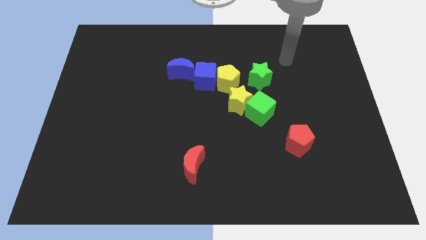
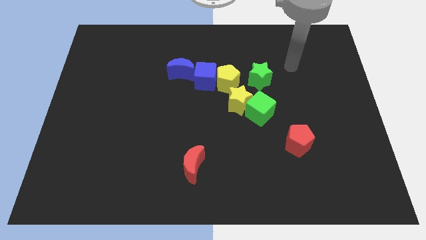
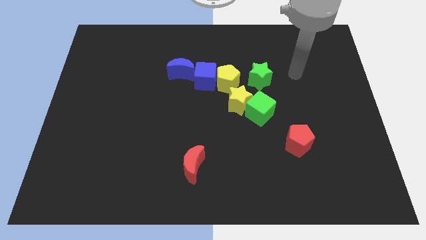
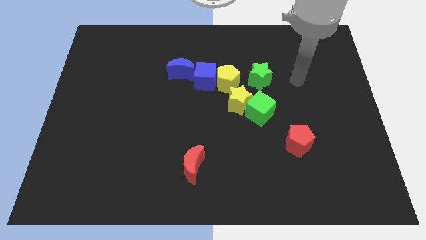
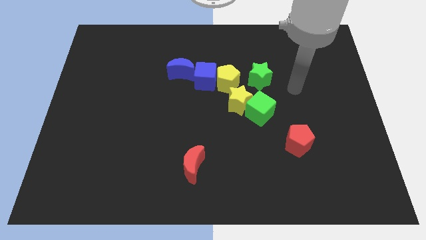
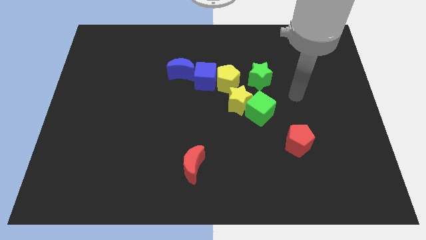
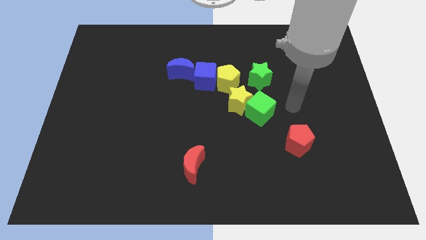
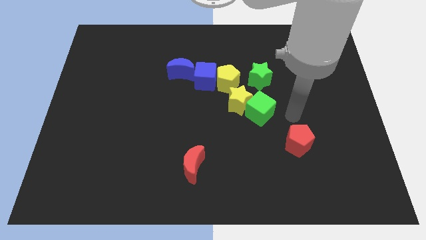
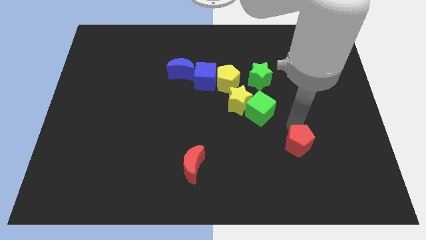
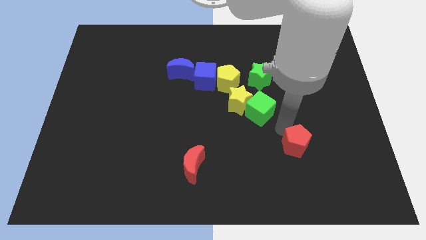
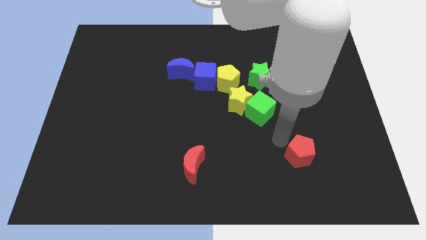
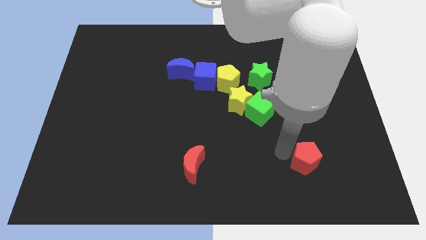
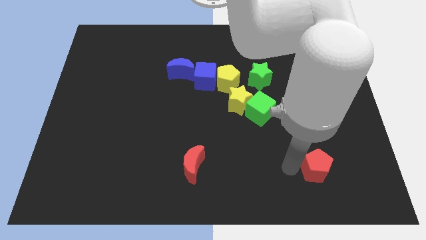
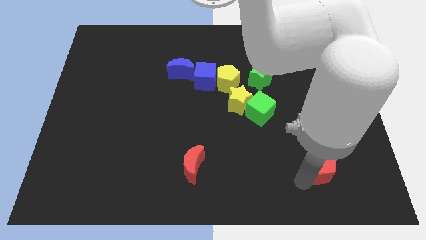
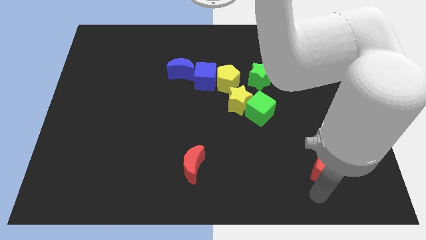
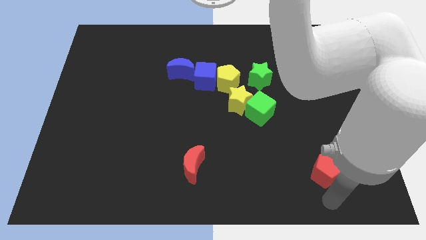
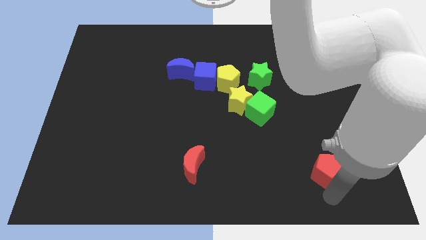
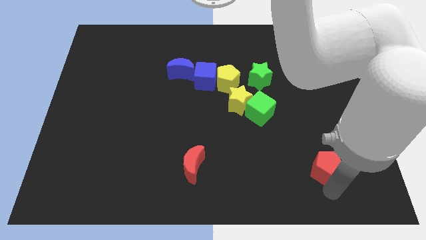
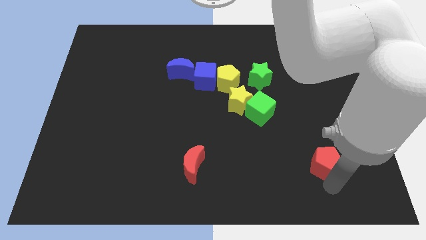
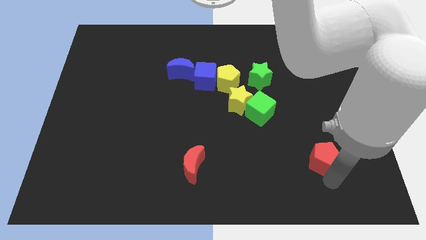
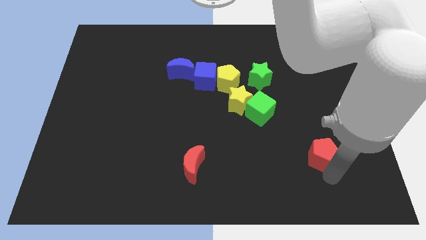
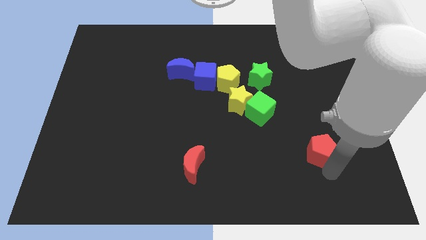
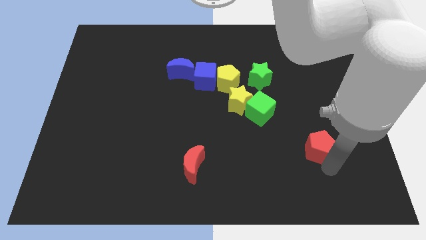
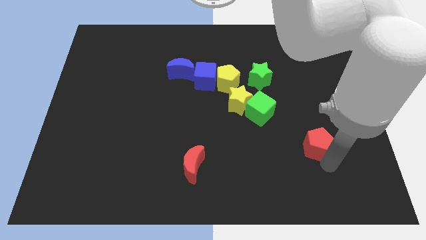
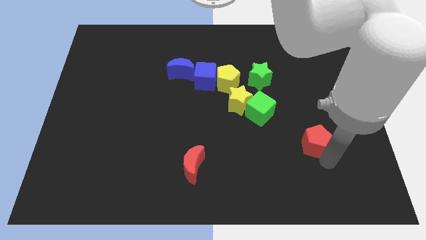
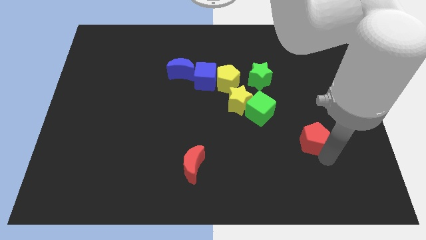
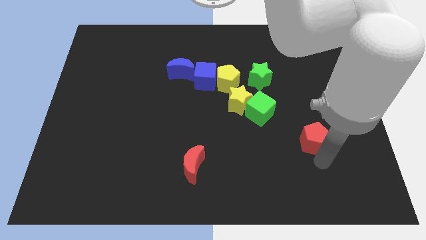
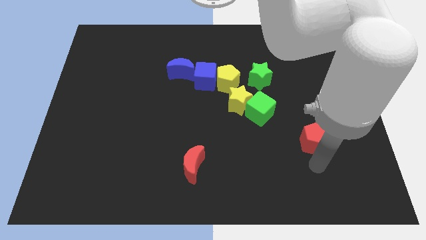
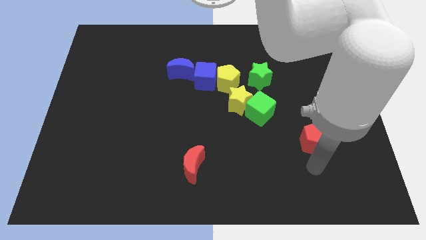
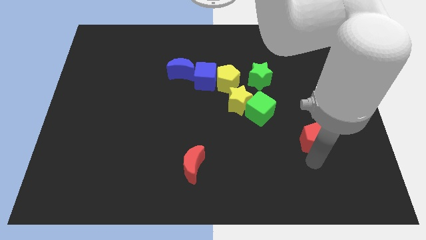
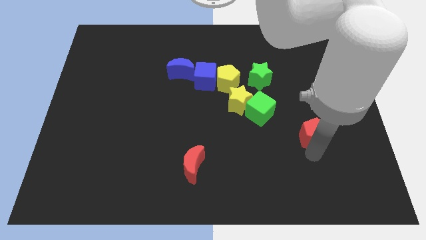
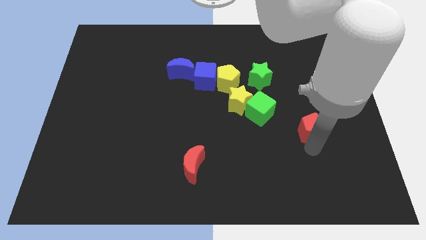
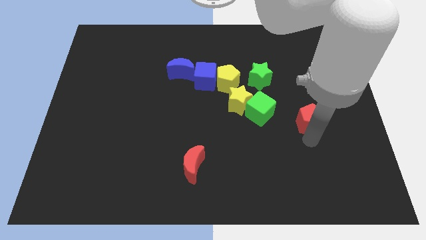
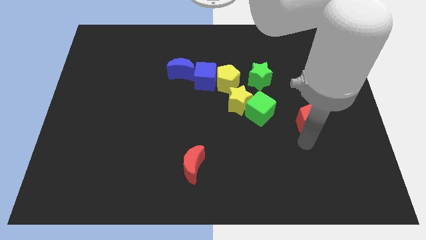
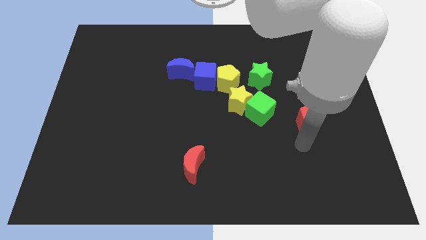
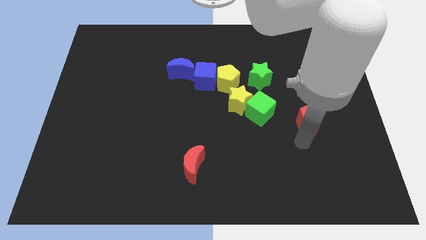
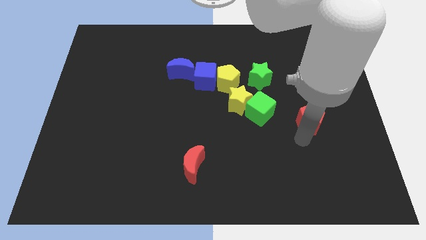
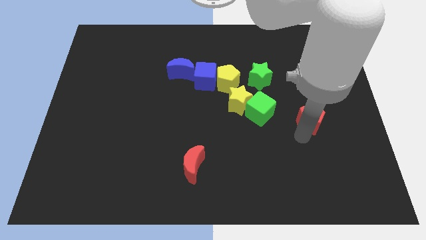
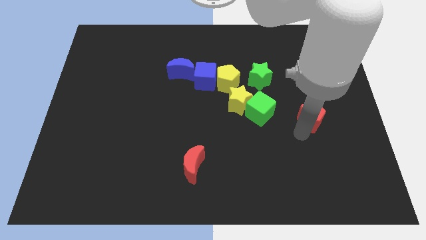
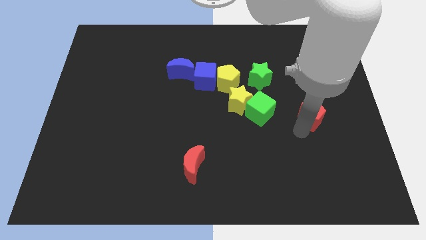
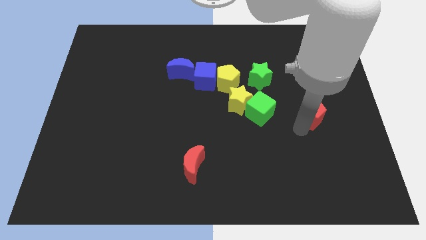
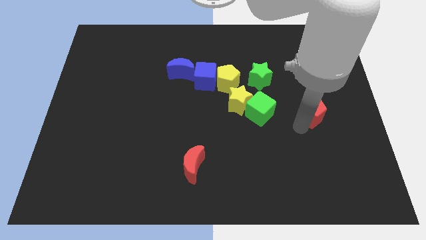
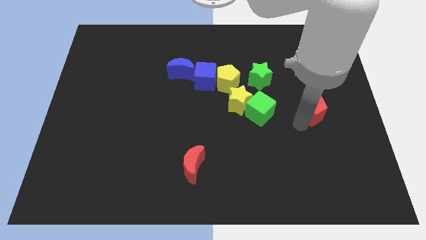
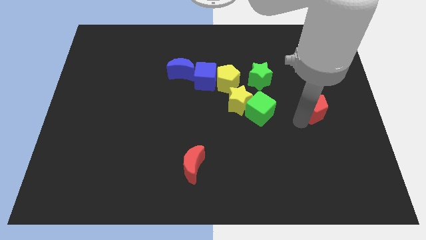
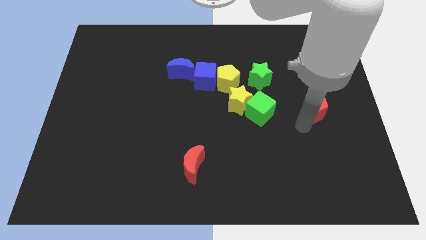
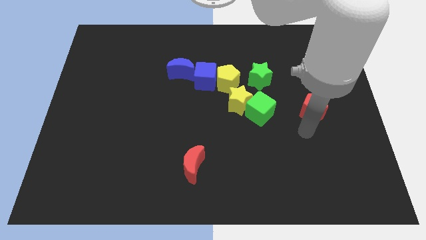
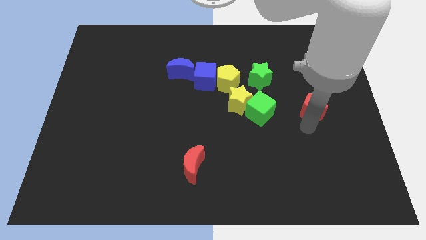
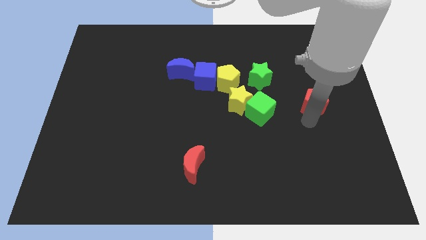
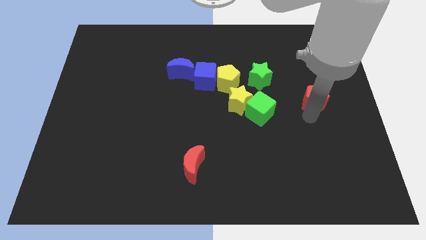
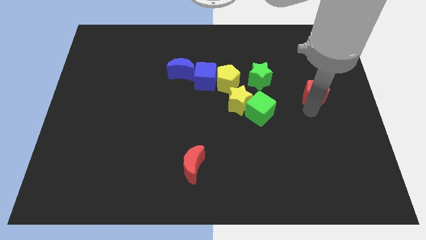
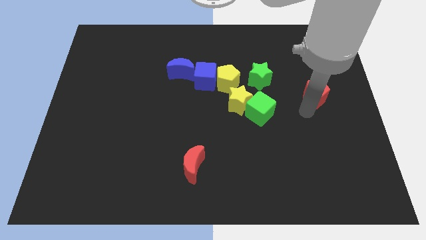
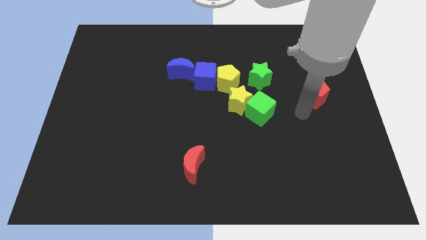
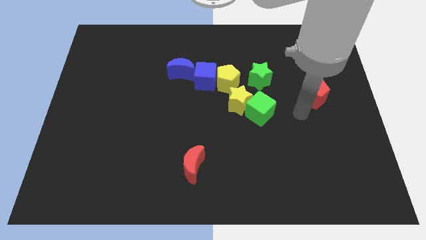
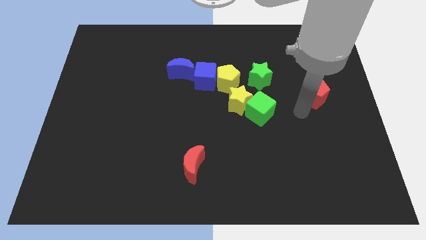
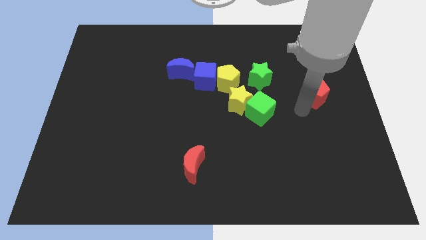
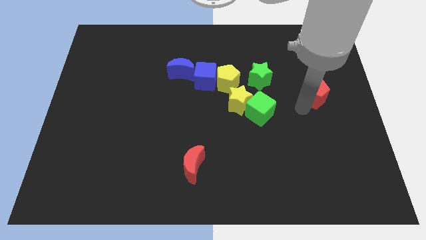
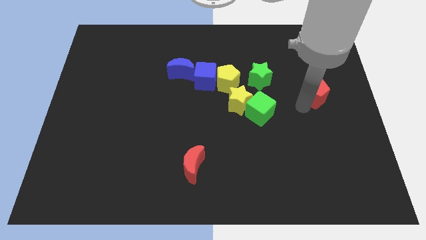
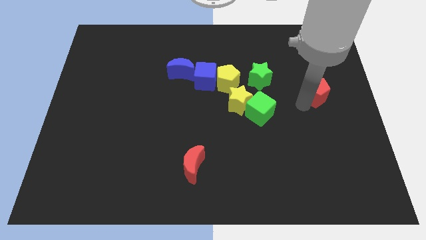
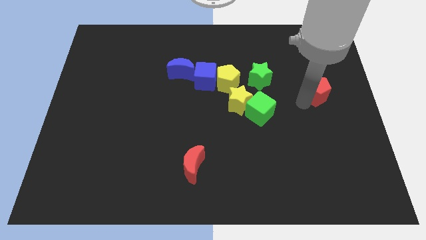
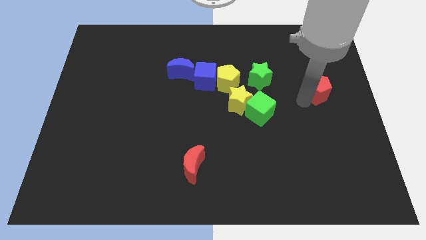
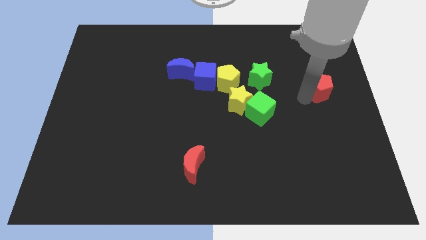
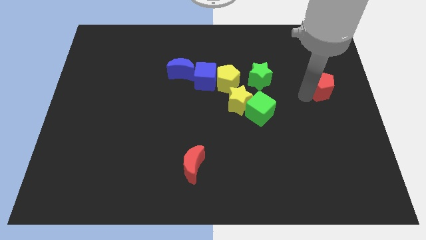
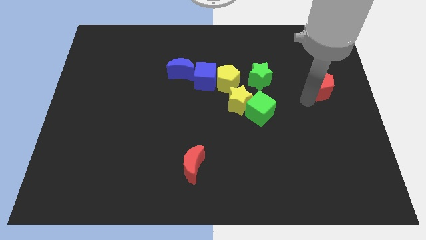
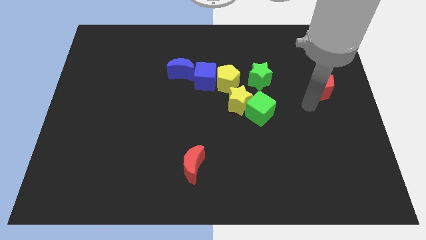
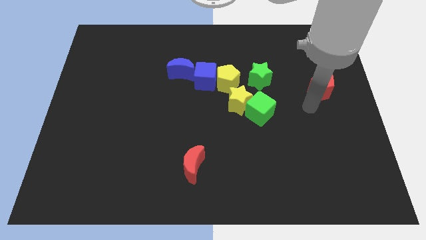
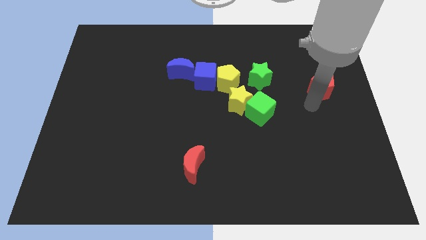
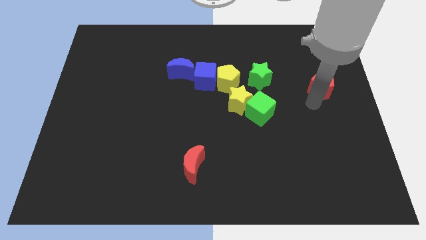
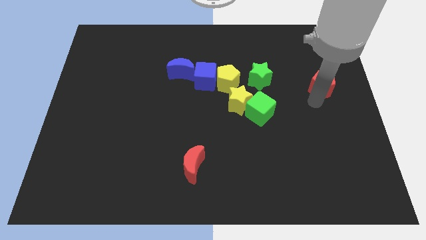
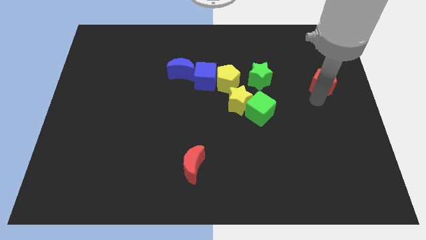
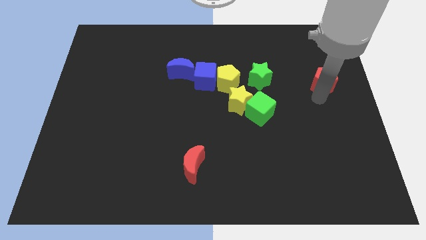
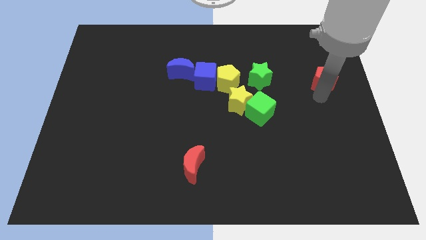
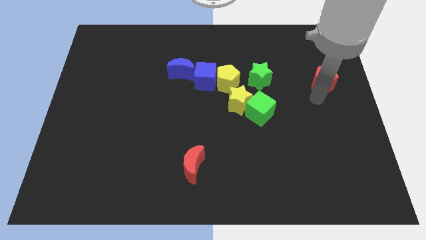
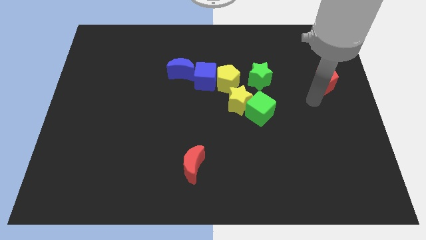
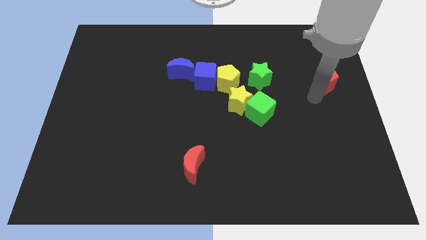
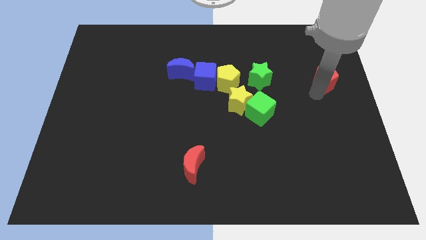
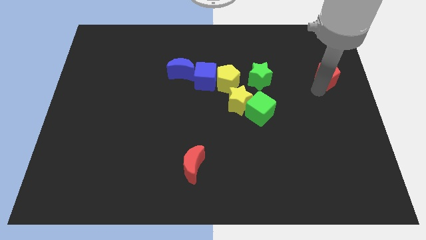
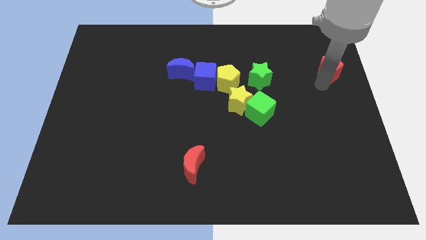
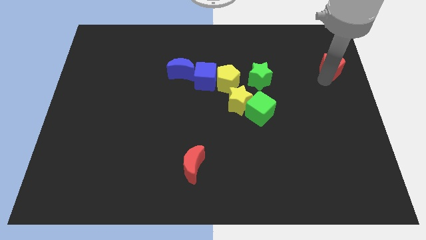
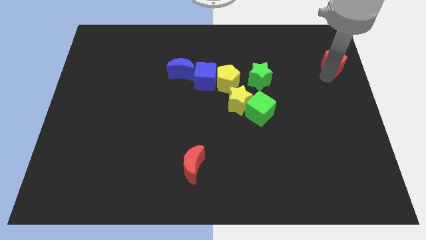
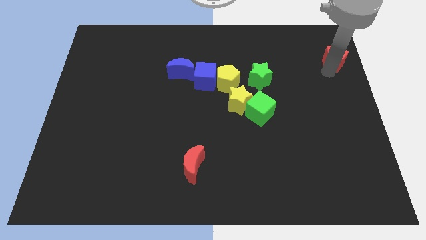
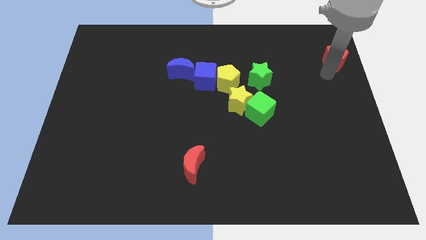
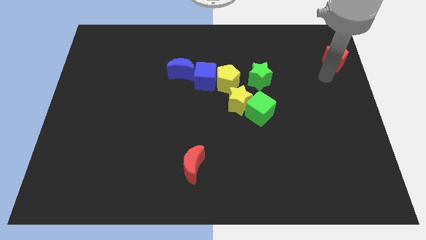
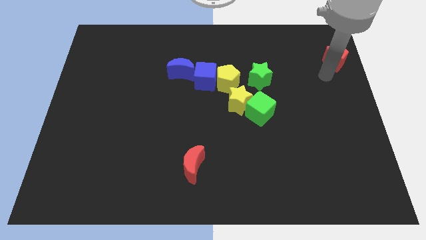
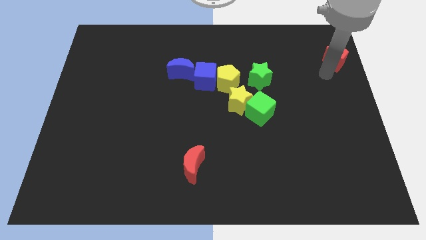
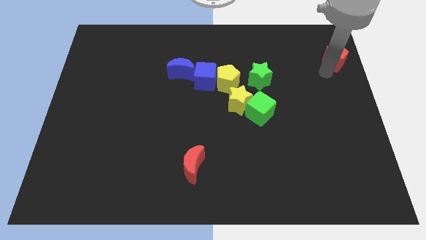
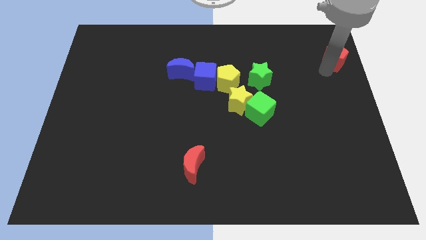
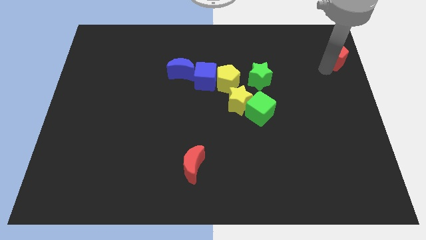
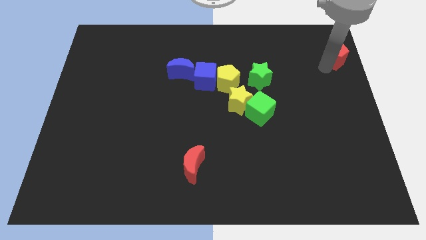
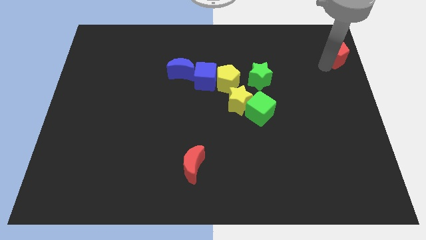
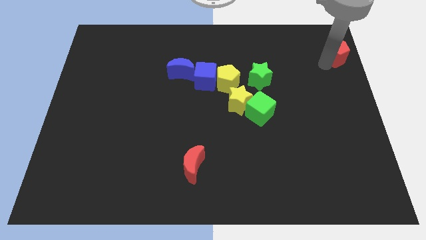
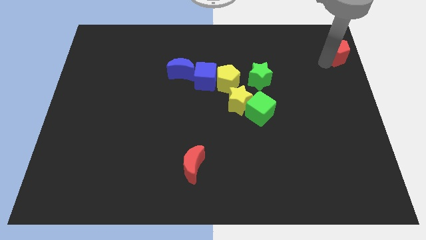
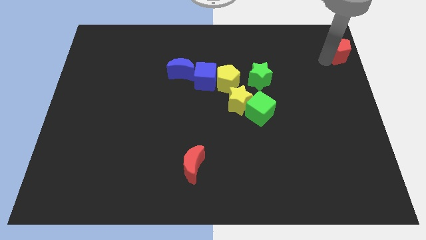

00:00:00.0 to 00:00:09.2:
move the red pentagon to the top right
